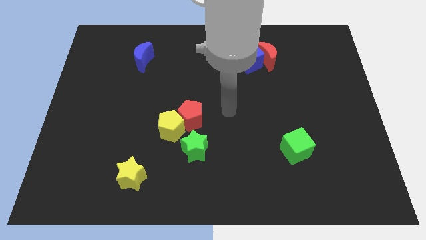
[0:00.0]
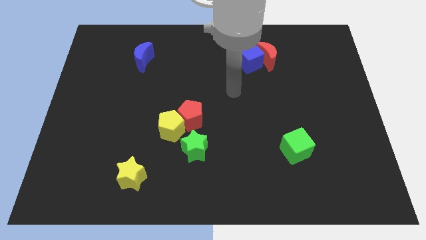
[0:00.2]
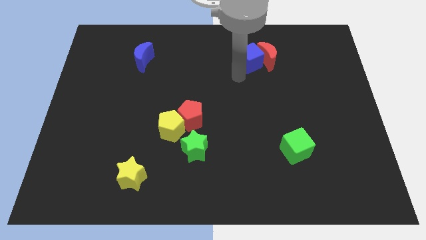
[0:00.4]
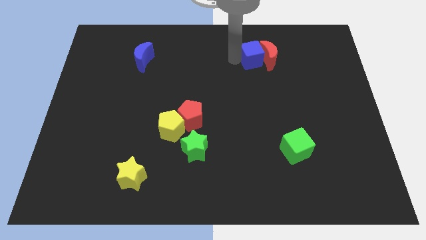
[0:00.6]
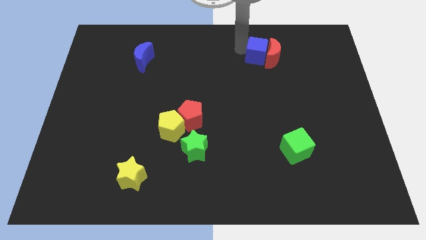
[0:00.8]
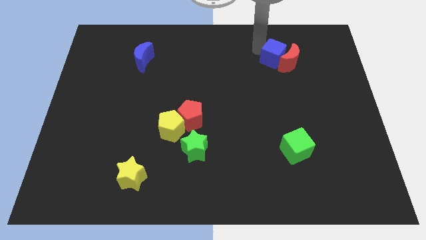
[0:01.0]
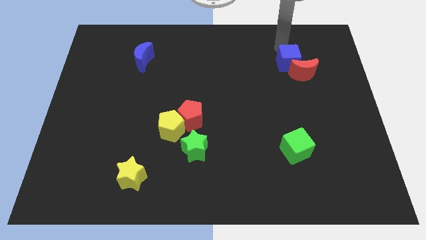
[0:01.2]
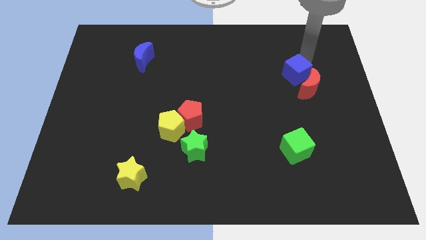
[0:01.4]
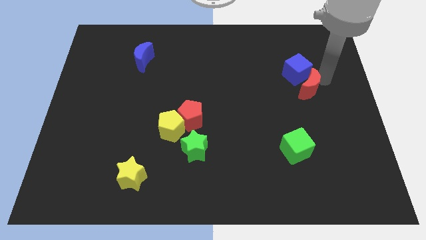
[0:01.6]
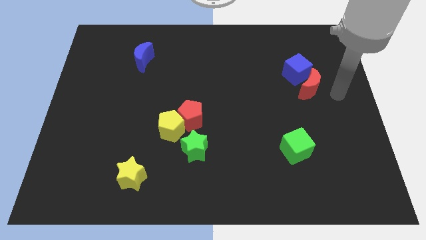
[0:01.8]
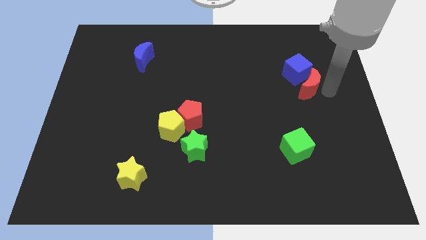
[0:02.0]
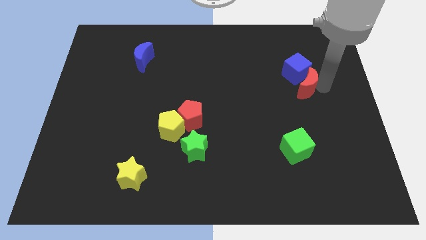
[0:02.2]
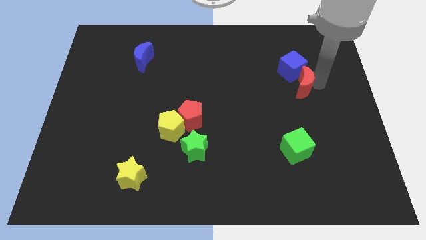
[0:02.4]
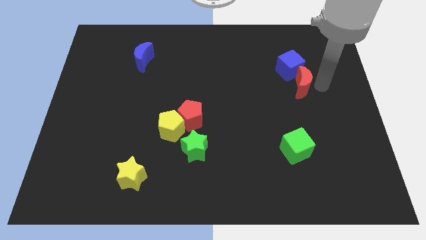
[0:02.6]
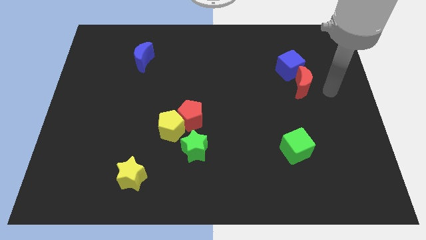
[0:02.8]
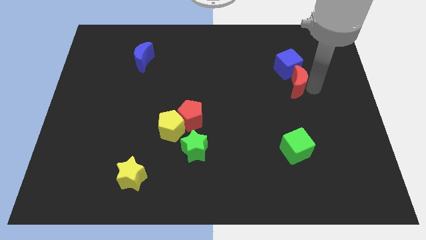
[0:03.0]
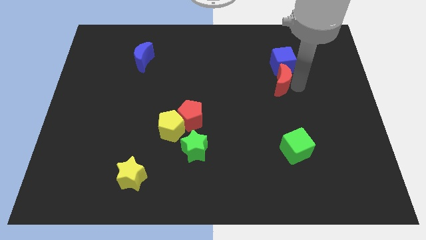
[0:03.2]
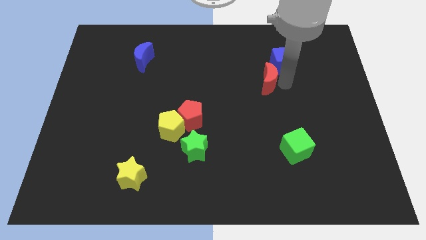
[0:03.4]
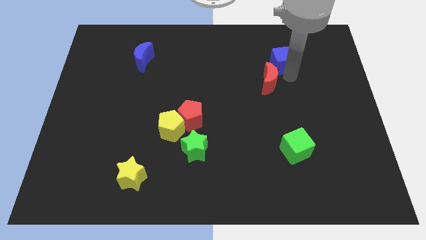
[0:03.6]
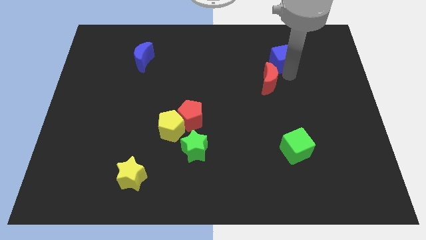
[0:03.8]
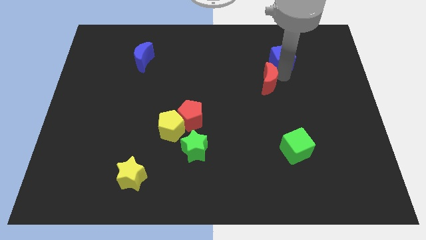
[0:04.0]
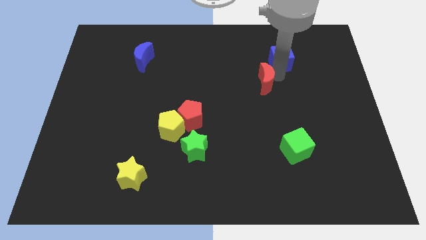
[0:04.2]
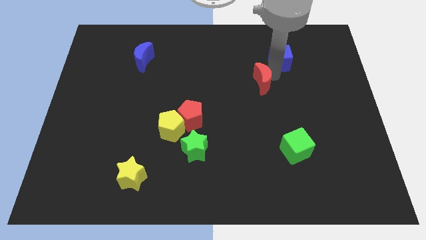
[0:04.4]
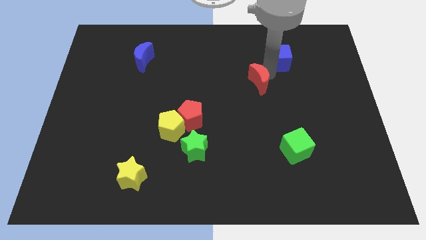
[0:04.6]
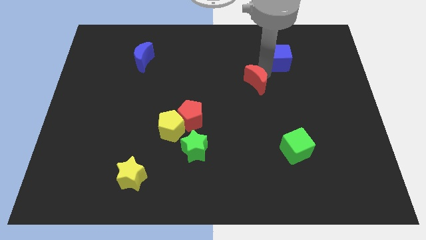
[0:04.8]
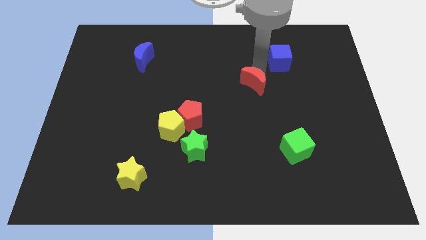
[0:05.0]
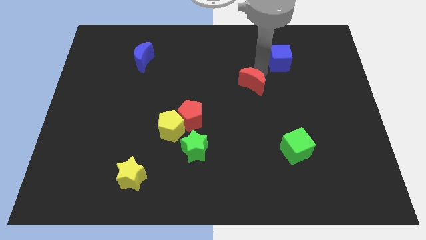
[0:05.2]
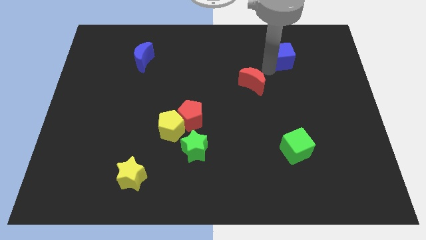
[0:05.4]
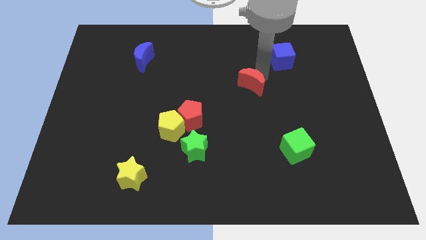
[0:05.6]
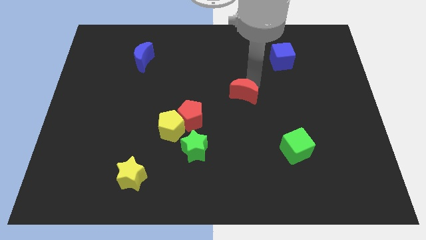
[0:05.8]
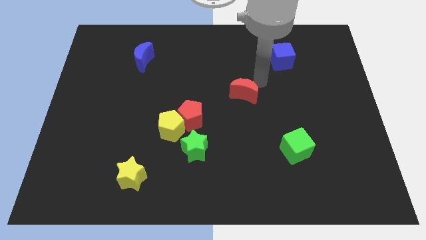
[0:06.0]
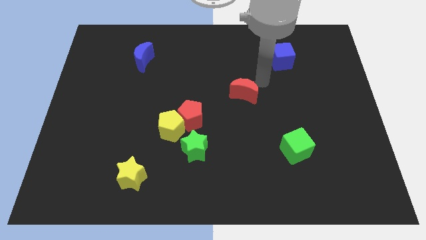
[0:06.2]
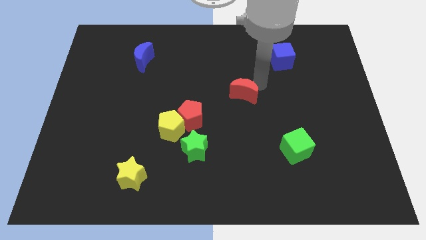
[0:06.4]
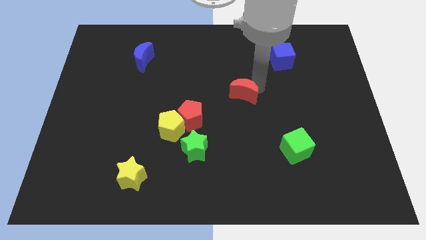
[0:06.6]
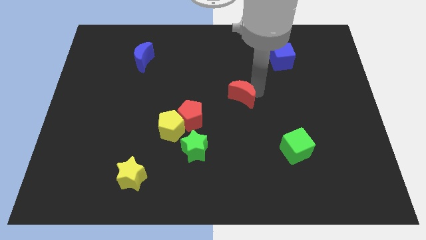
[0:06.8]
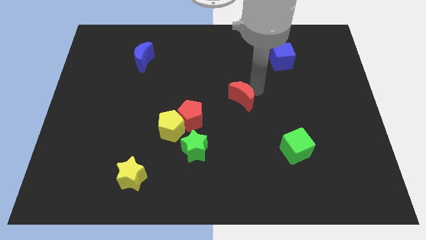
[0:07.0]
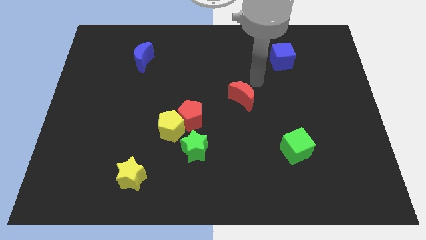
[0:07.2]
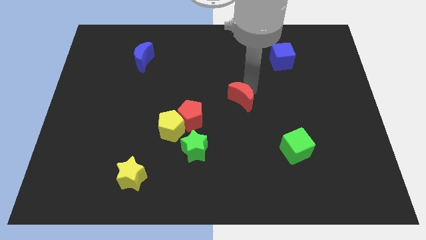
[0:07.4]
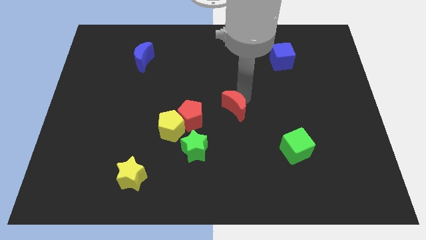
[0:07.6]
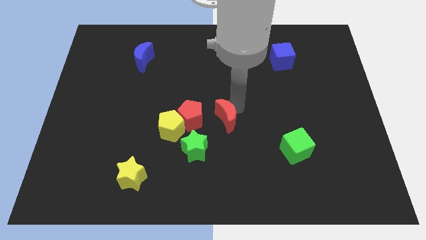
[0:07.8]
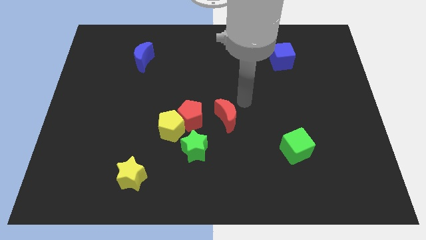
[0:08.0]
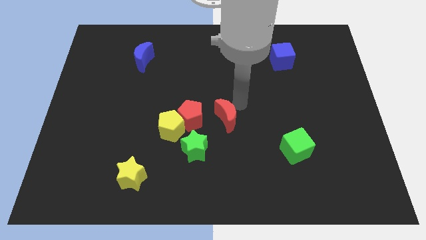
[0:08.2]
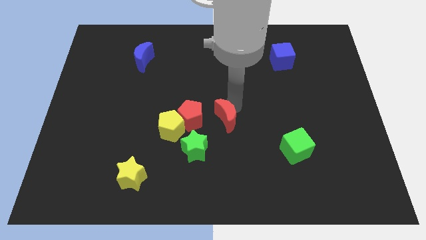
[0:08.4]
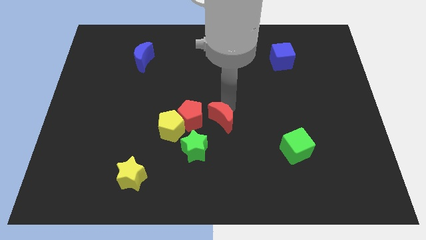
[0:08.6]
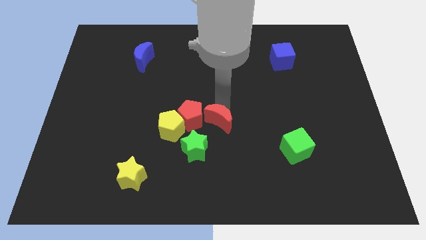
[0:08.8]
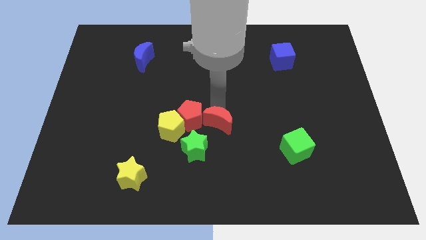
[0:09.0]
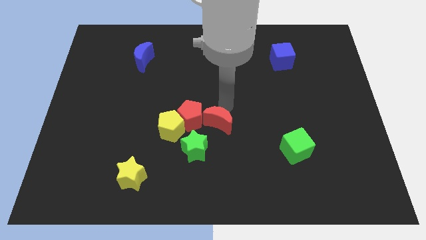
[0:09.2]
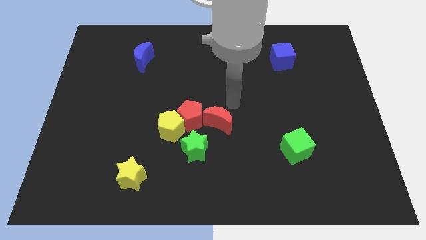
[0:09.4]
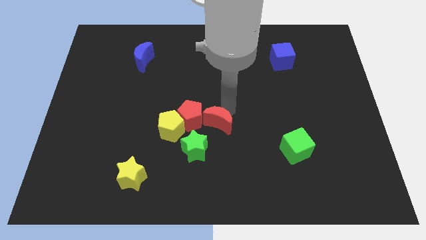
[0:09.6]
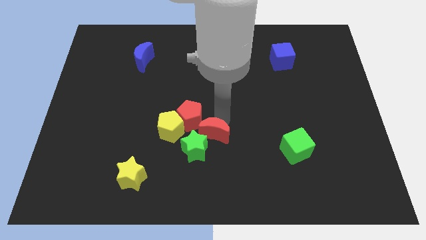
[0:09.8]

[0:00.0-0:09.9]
push the red moon next to the green star

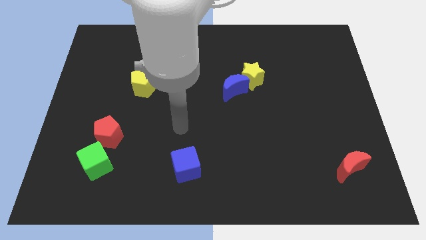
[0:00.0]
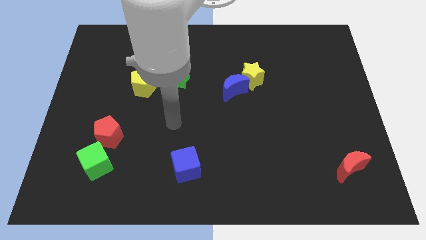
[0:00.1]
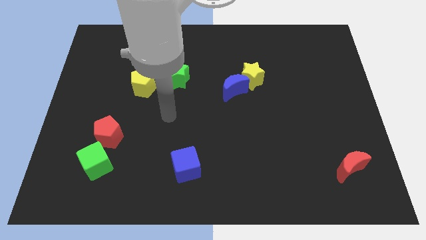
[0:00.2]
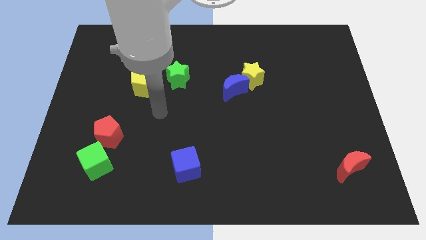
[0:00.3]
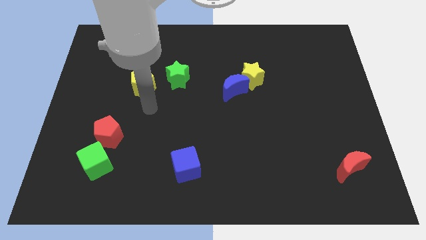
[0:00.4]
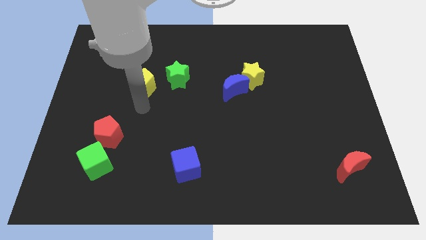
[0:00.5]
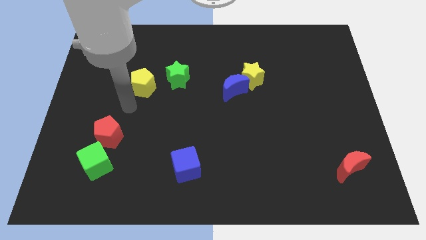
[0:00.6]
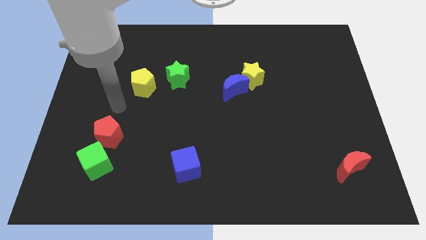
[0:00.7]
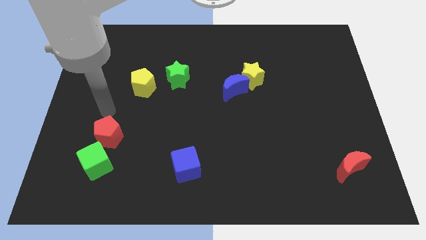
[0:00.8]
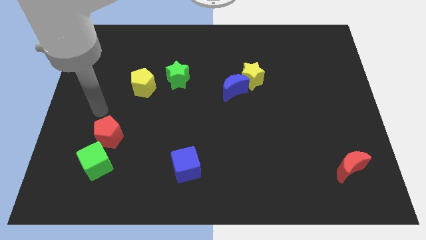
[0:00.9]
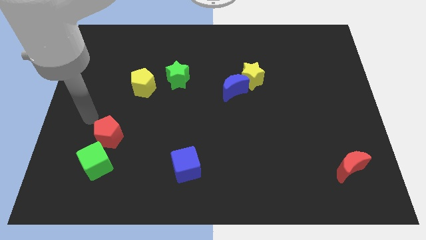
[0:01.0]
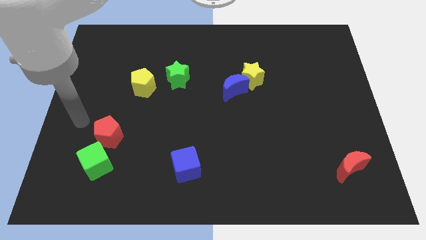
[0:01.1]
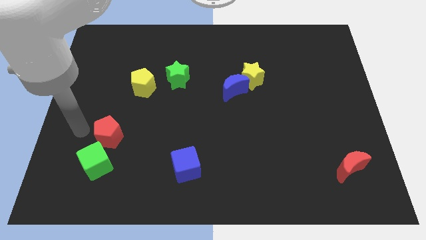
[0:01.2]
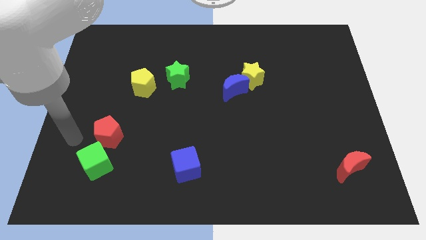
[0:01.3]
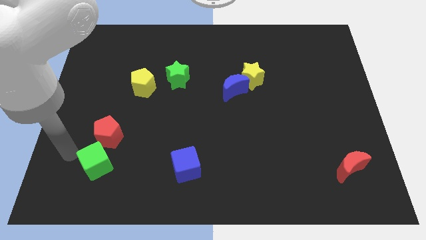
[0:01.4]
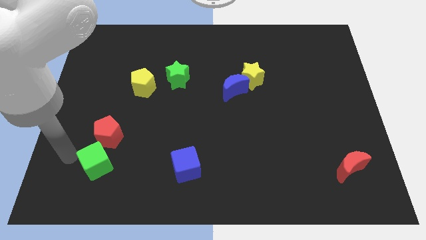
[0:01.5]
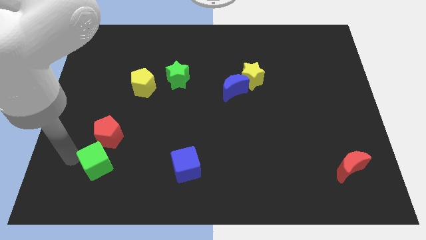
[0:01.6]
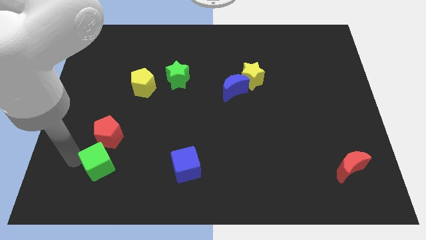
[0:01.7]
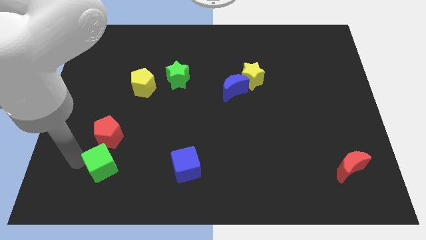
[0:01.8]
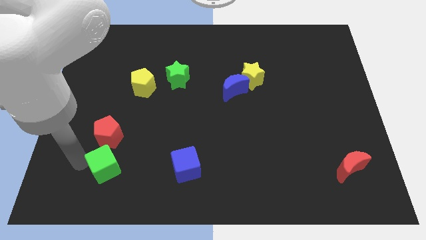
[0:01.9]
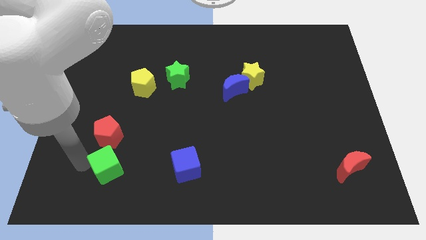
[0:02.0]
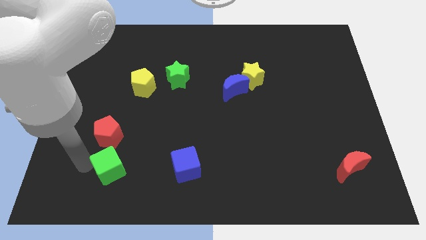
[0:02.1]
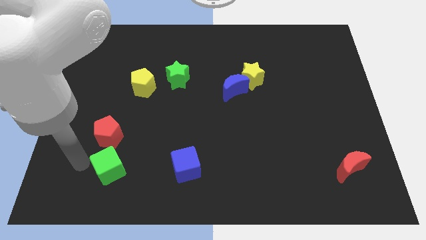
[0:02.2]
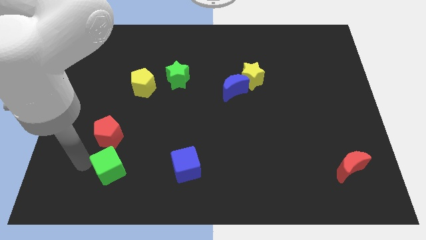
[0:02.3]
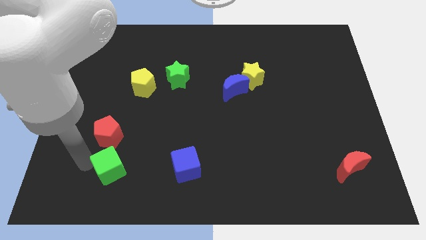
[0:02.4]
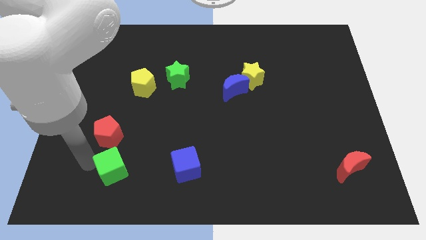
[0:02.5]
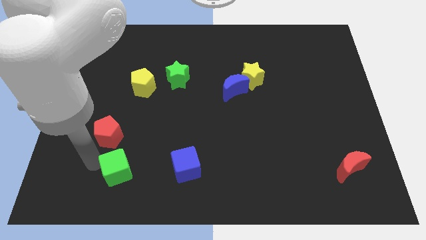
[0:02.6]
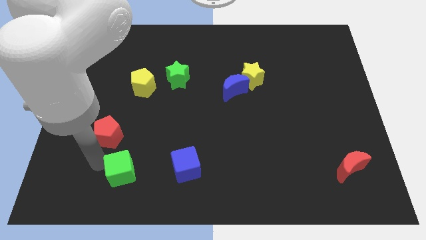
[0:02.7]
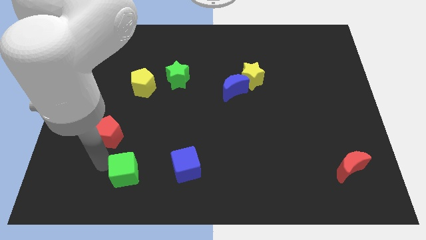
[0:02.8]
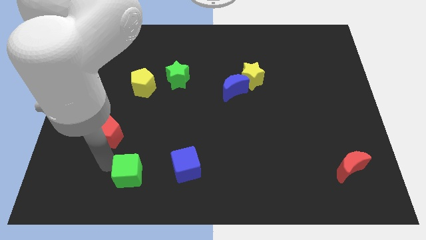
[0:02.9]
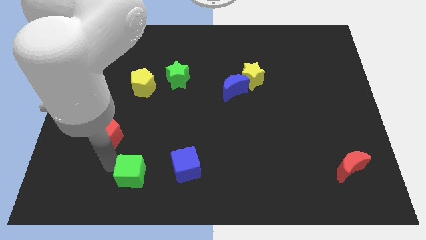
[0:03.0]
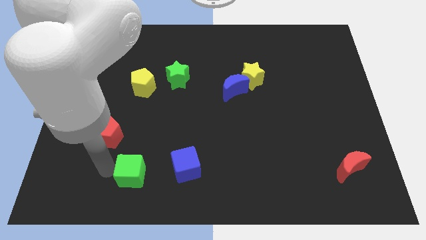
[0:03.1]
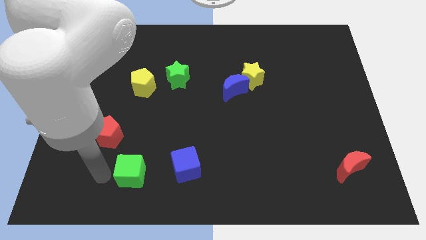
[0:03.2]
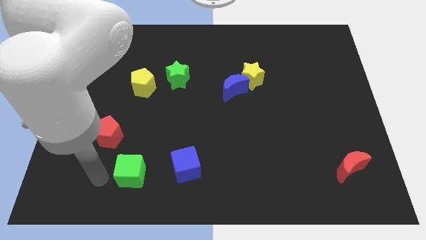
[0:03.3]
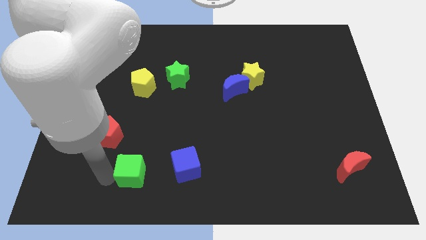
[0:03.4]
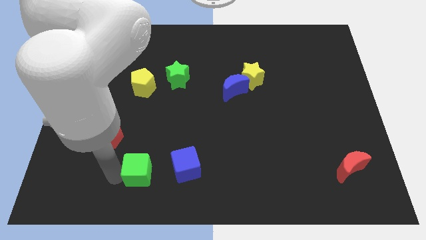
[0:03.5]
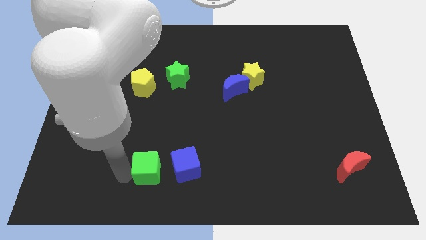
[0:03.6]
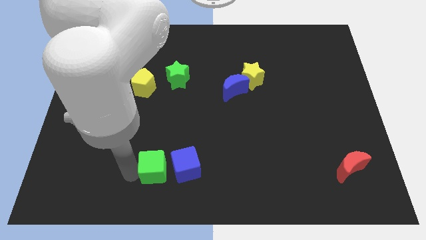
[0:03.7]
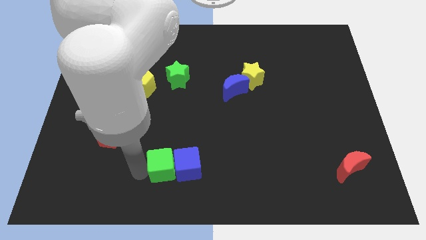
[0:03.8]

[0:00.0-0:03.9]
push the green cube next to the blue cube
